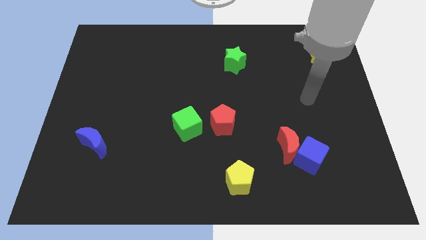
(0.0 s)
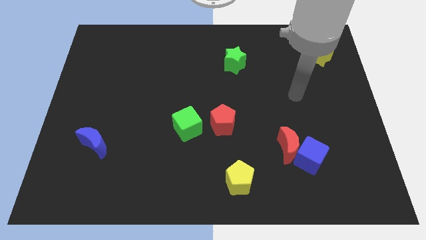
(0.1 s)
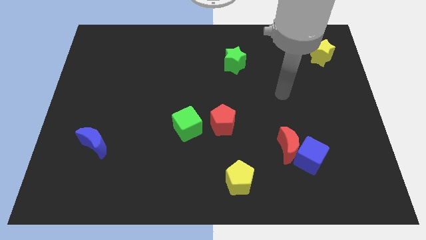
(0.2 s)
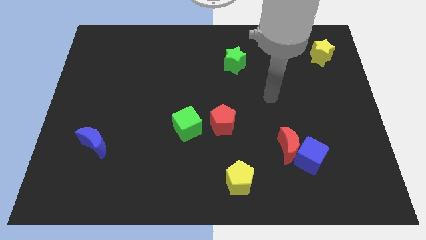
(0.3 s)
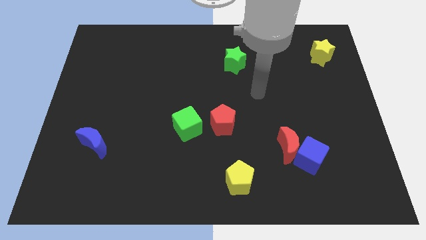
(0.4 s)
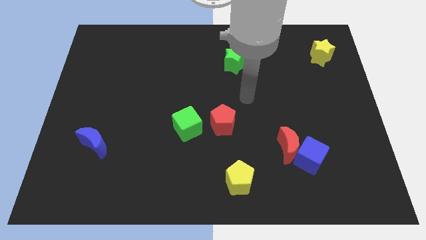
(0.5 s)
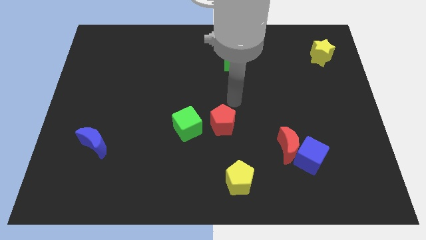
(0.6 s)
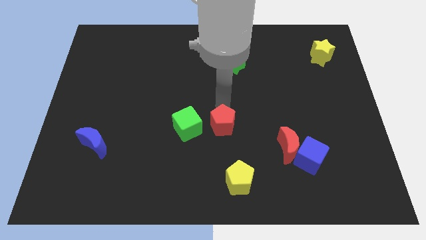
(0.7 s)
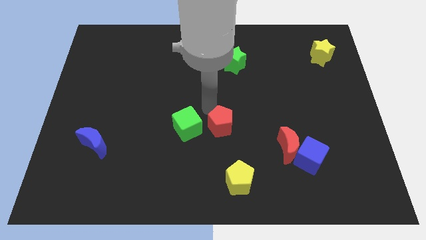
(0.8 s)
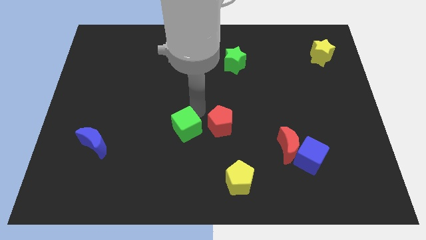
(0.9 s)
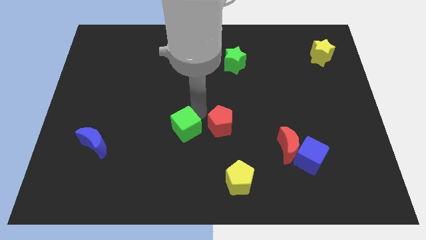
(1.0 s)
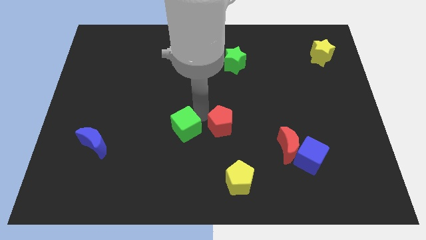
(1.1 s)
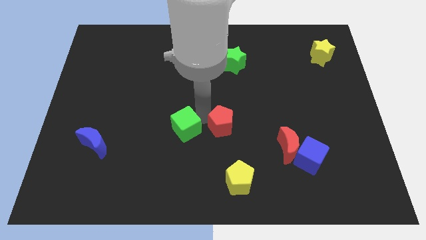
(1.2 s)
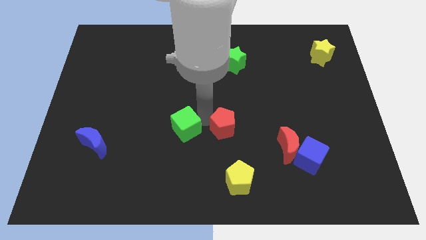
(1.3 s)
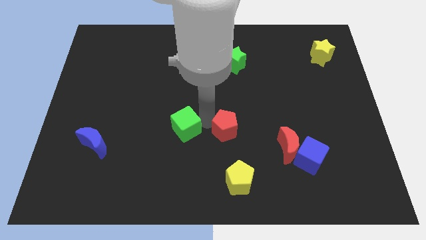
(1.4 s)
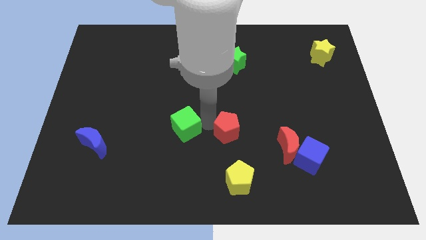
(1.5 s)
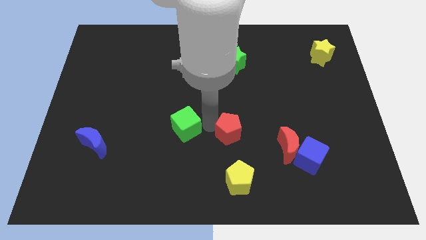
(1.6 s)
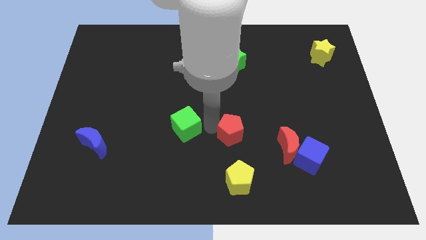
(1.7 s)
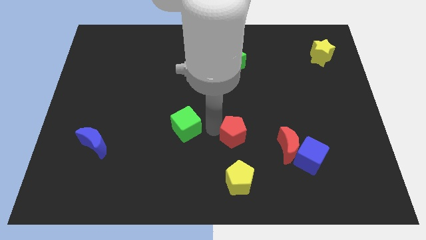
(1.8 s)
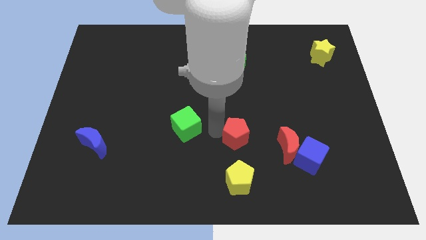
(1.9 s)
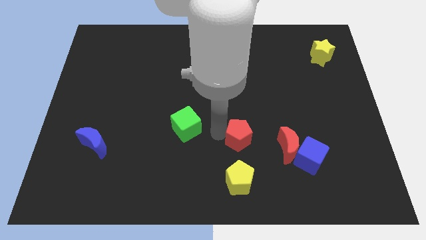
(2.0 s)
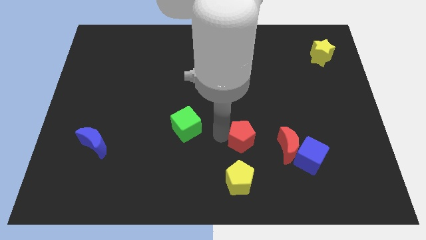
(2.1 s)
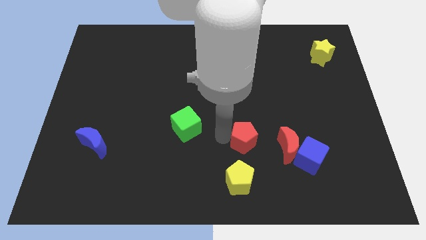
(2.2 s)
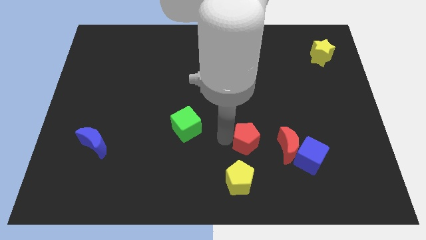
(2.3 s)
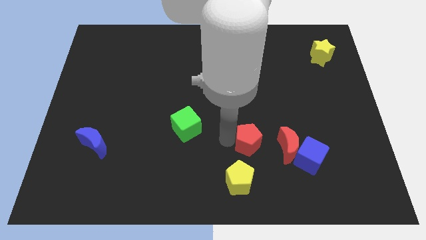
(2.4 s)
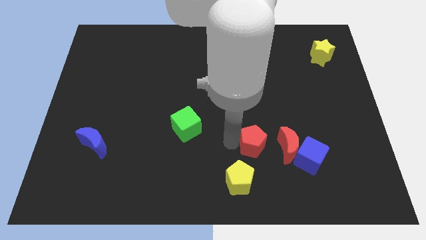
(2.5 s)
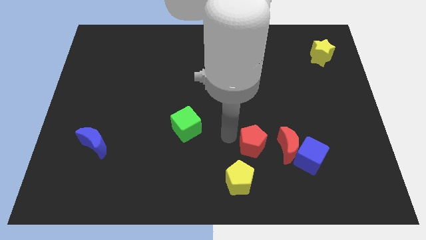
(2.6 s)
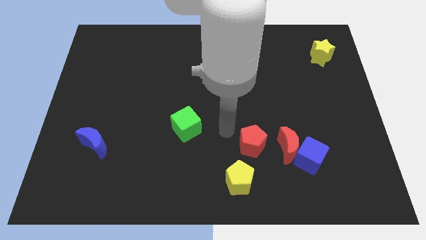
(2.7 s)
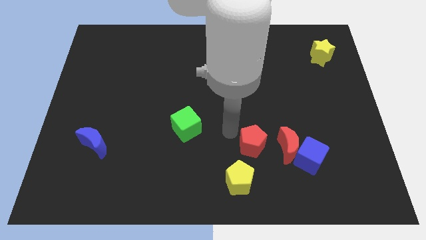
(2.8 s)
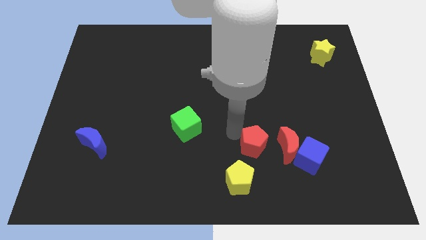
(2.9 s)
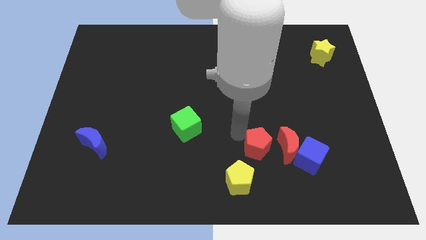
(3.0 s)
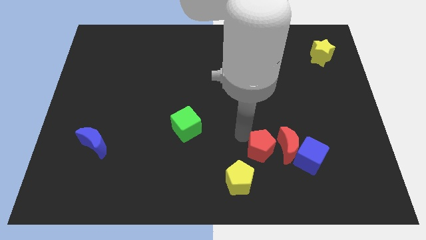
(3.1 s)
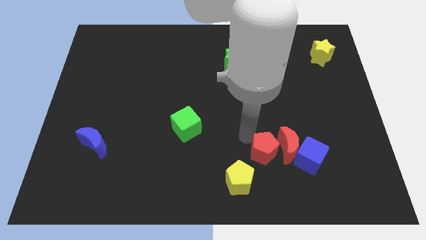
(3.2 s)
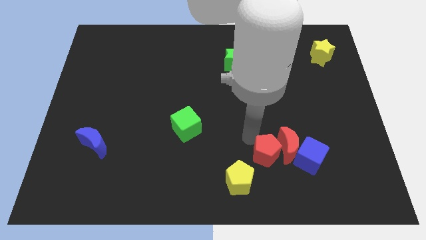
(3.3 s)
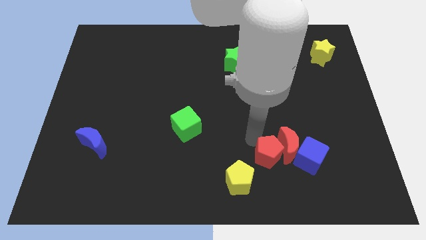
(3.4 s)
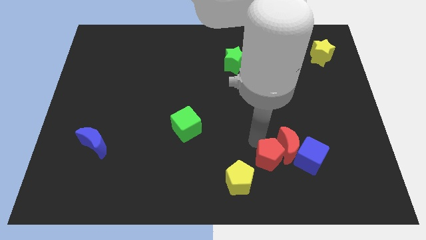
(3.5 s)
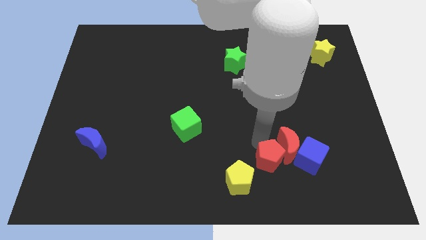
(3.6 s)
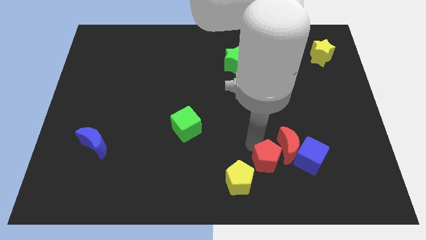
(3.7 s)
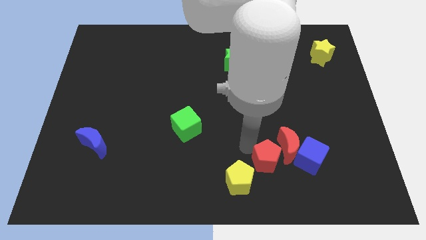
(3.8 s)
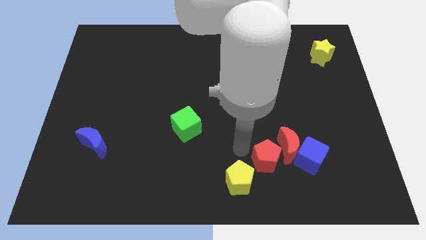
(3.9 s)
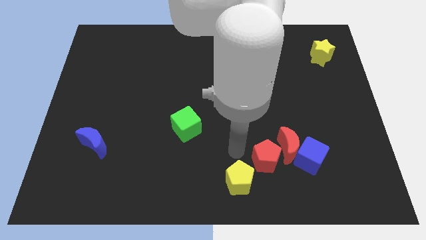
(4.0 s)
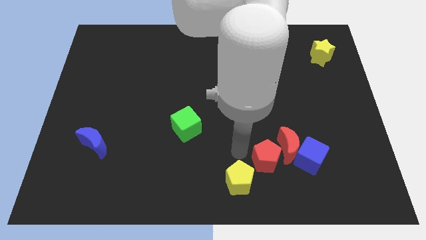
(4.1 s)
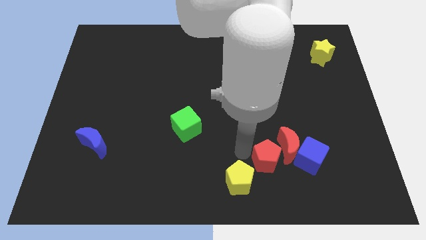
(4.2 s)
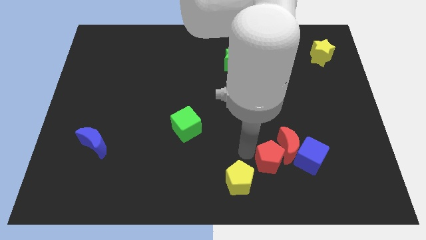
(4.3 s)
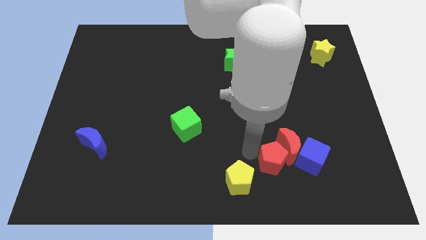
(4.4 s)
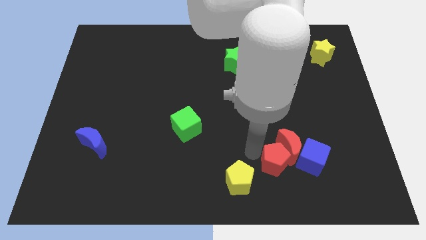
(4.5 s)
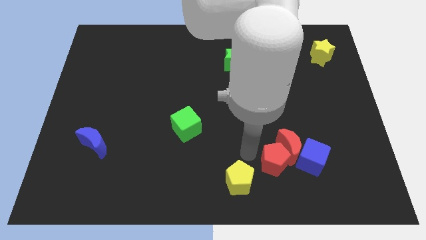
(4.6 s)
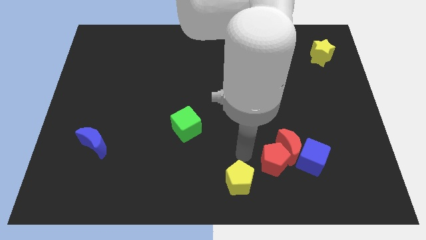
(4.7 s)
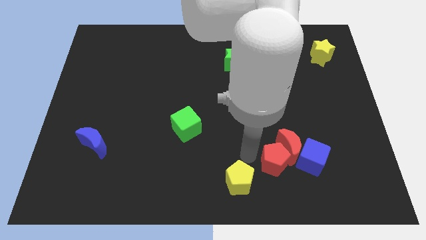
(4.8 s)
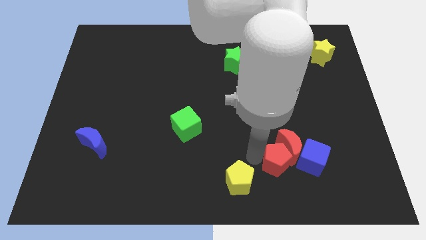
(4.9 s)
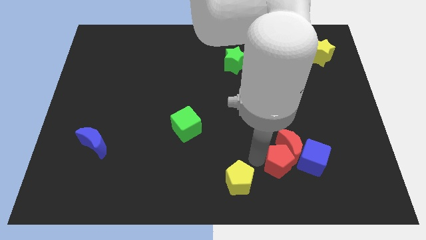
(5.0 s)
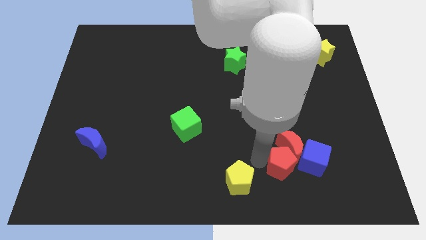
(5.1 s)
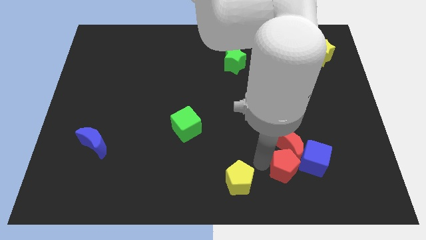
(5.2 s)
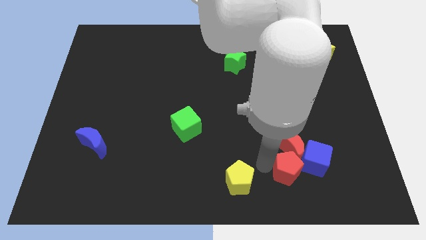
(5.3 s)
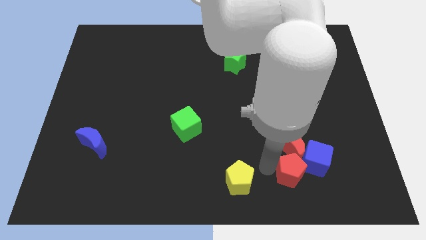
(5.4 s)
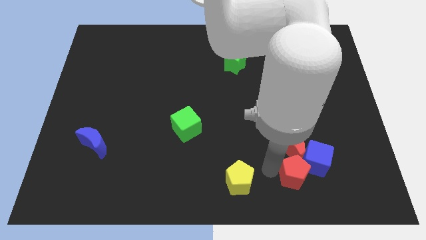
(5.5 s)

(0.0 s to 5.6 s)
slide the red pentagon next to the blue cube

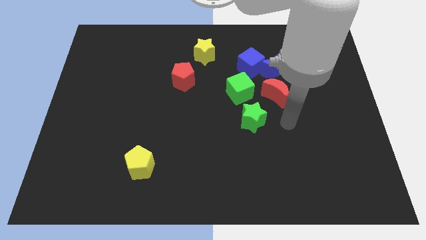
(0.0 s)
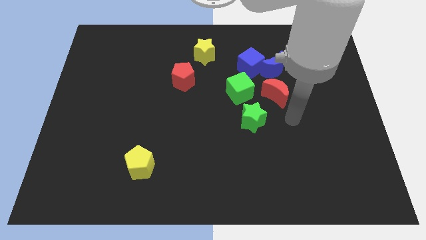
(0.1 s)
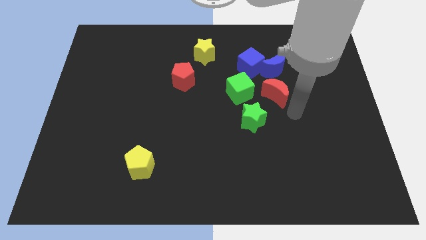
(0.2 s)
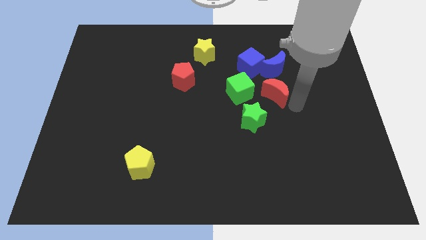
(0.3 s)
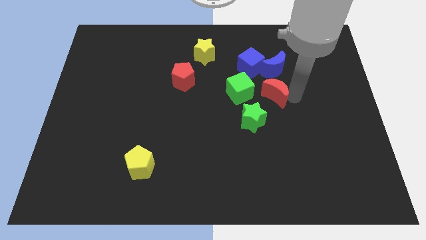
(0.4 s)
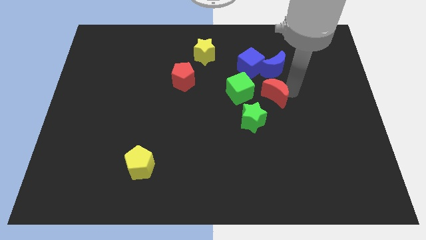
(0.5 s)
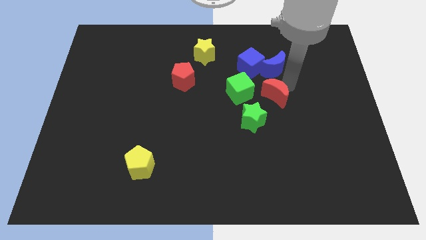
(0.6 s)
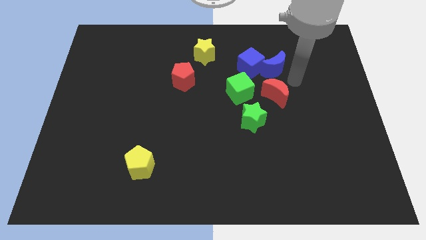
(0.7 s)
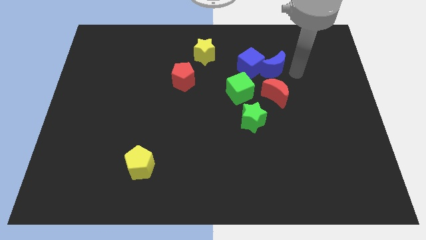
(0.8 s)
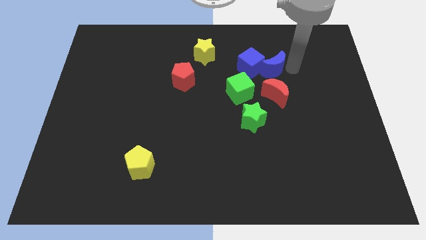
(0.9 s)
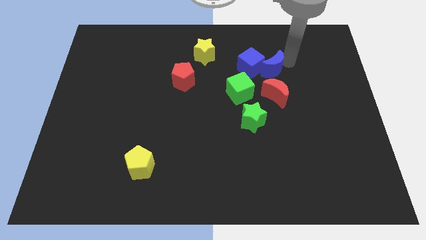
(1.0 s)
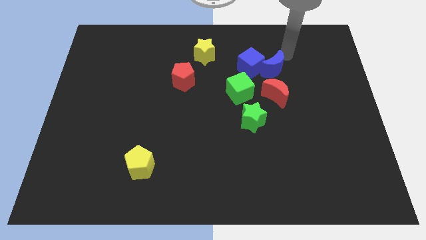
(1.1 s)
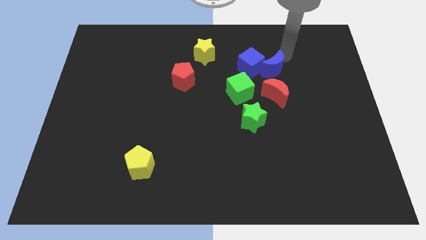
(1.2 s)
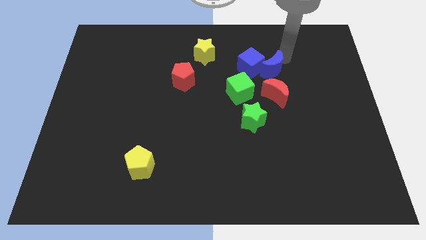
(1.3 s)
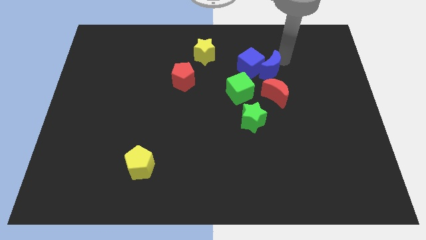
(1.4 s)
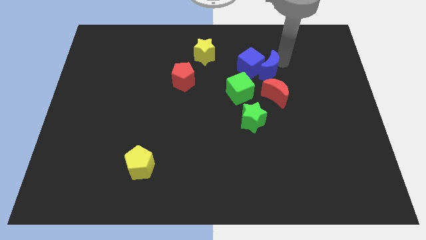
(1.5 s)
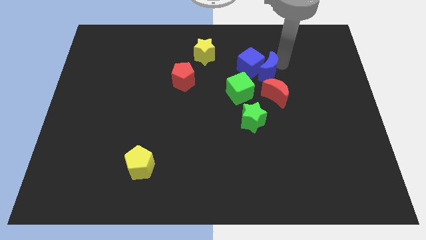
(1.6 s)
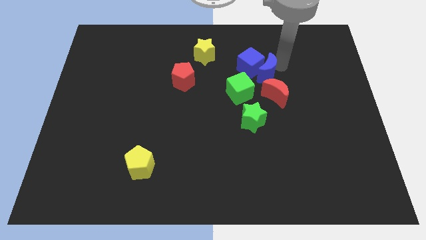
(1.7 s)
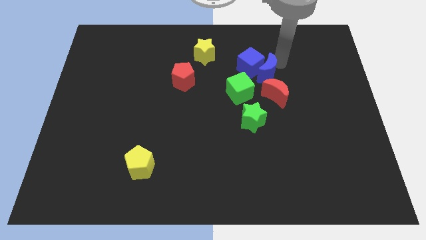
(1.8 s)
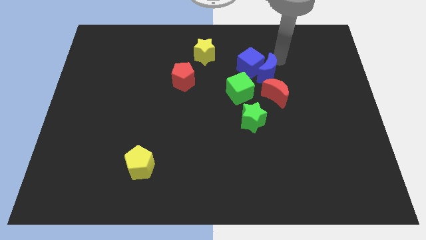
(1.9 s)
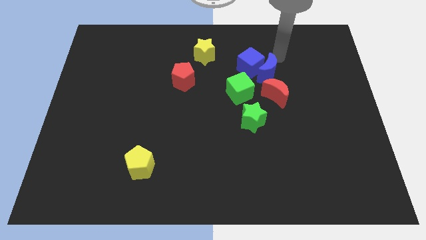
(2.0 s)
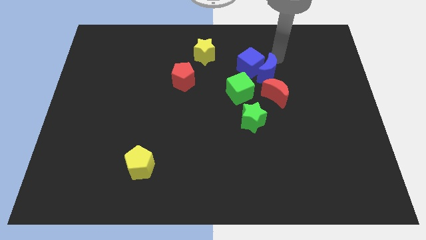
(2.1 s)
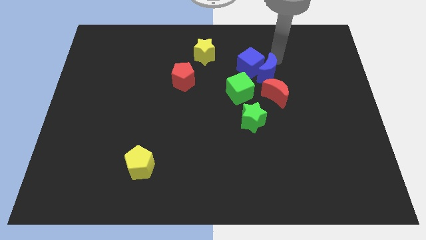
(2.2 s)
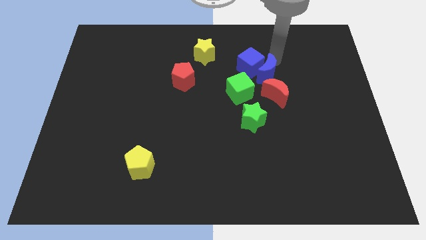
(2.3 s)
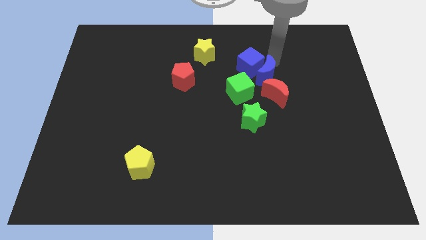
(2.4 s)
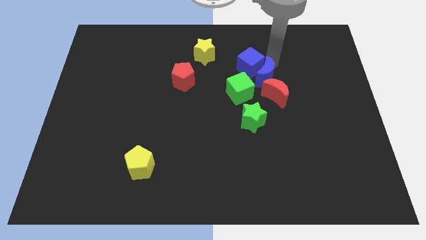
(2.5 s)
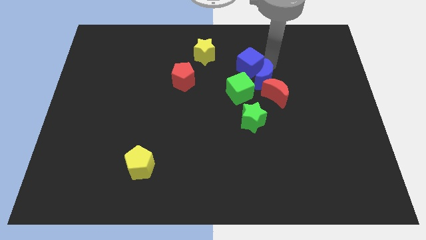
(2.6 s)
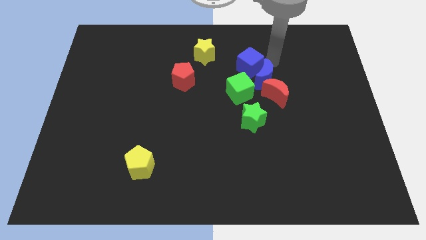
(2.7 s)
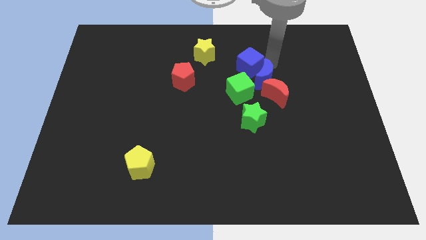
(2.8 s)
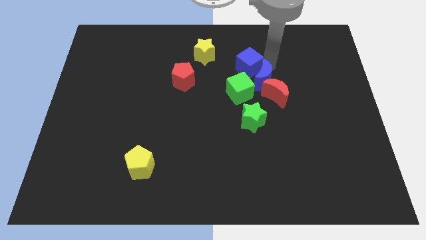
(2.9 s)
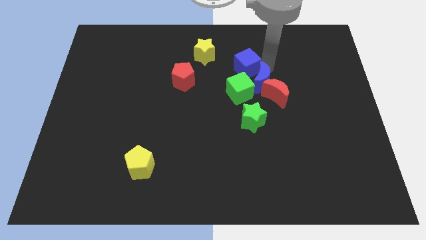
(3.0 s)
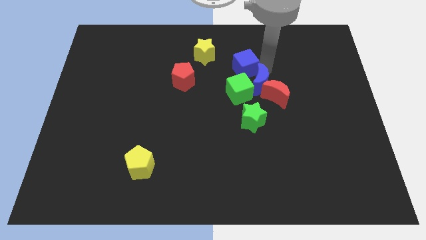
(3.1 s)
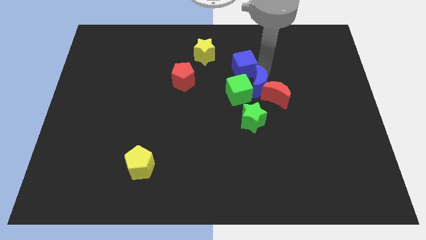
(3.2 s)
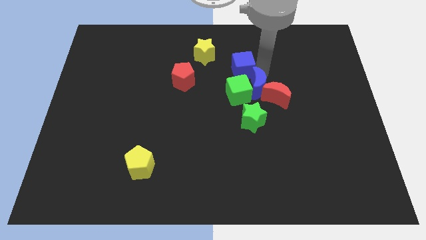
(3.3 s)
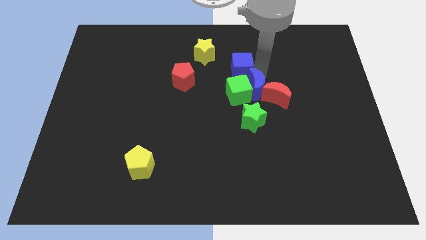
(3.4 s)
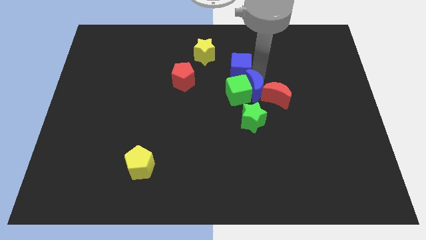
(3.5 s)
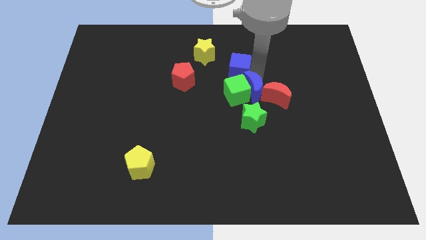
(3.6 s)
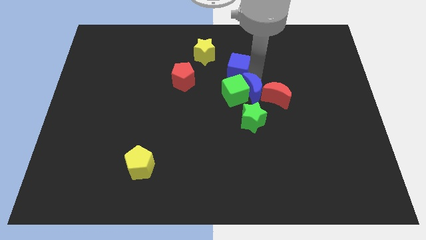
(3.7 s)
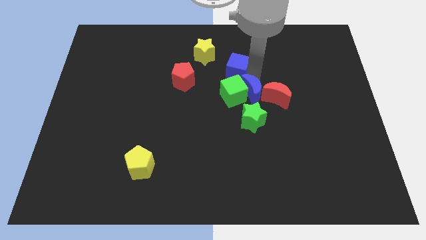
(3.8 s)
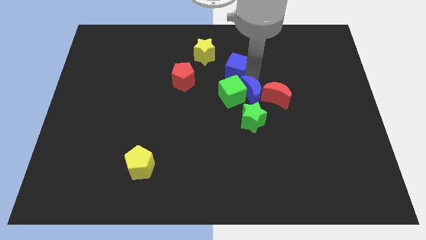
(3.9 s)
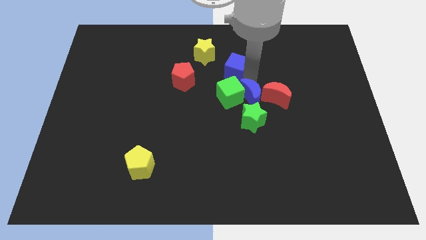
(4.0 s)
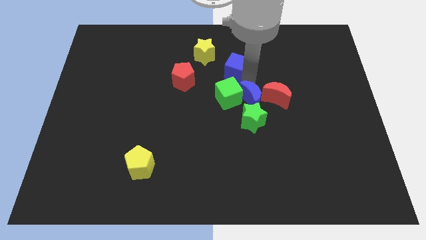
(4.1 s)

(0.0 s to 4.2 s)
push the blue moon towards the green star
